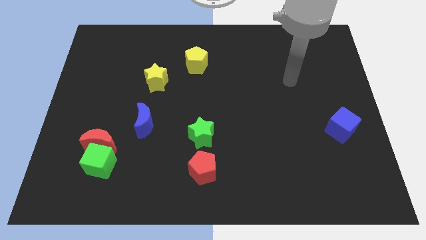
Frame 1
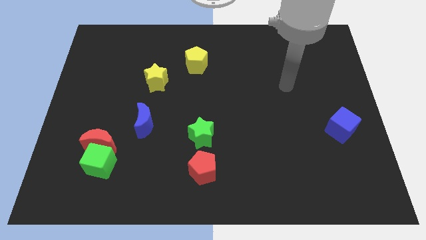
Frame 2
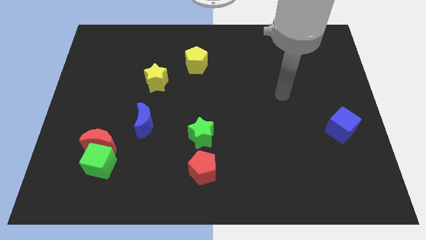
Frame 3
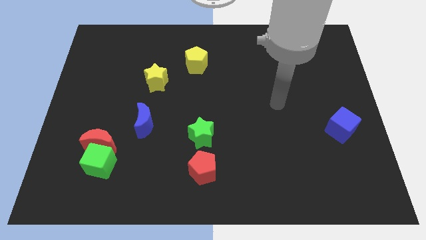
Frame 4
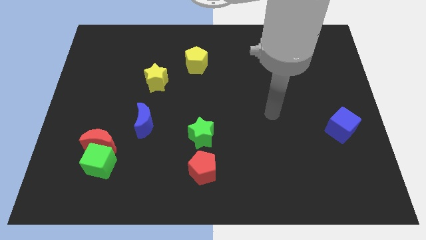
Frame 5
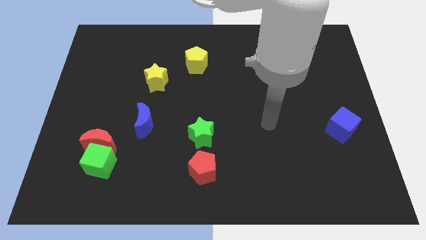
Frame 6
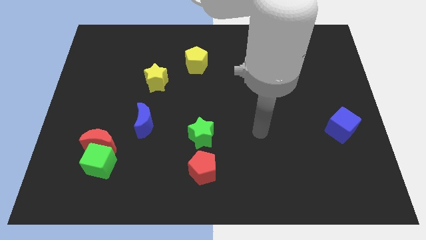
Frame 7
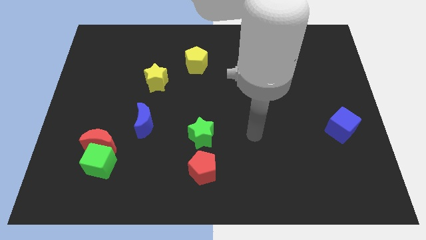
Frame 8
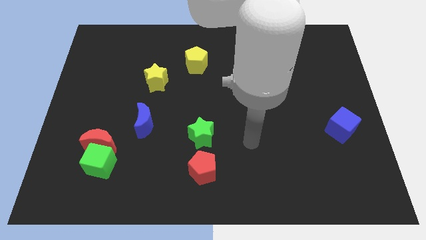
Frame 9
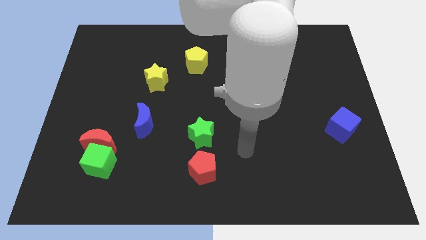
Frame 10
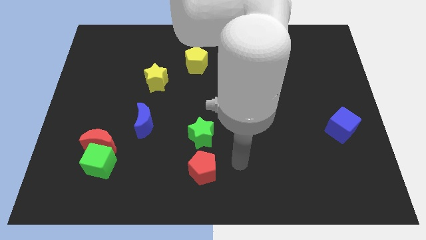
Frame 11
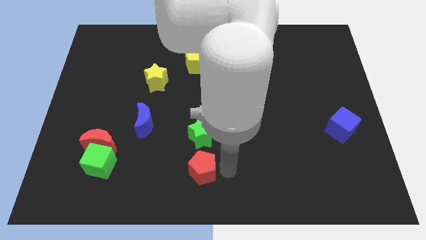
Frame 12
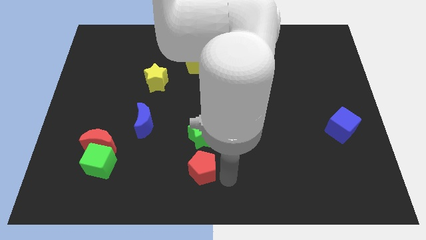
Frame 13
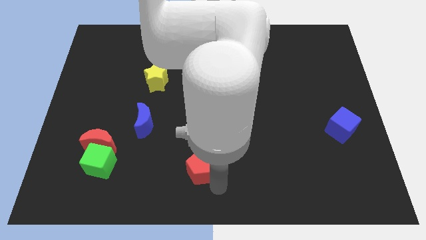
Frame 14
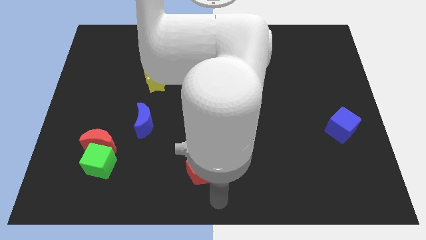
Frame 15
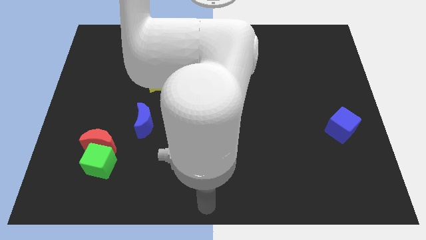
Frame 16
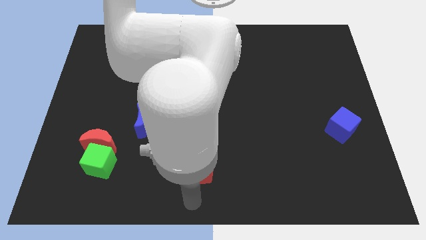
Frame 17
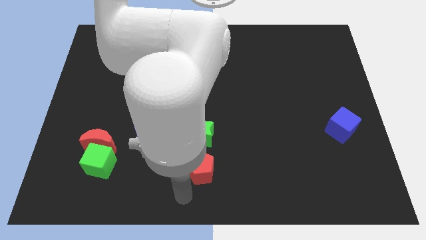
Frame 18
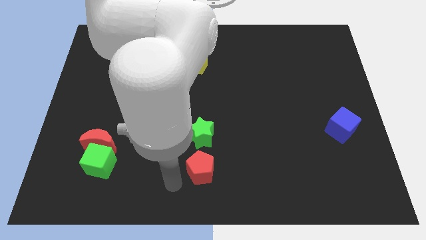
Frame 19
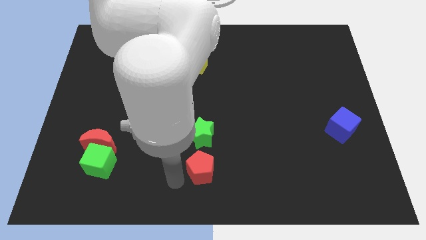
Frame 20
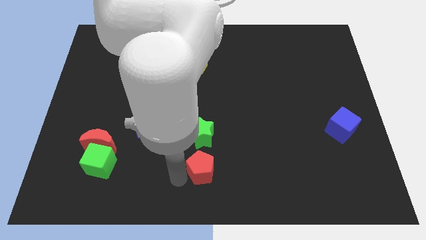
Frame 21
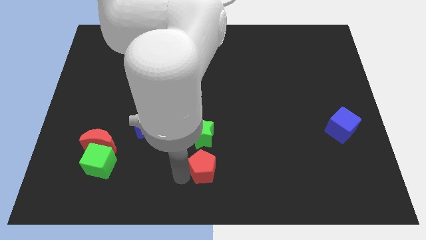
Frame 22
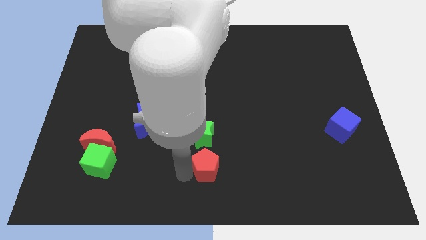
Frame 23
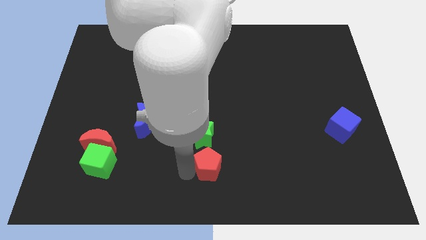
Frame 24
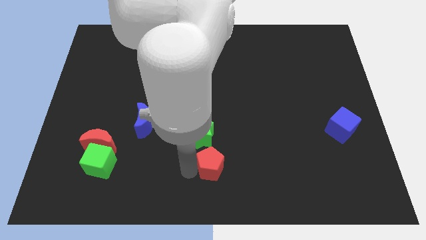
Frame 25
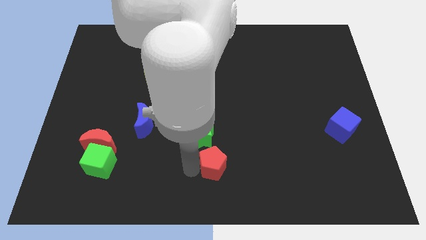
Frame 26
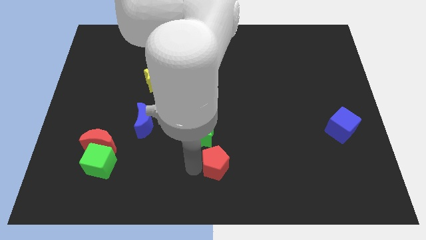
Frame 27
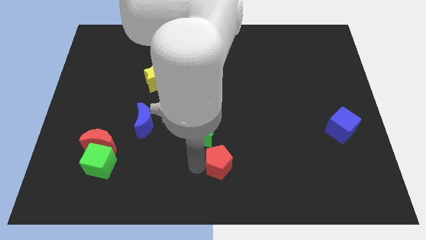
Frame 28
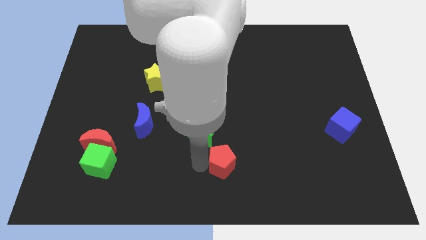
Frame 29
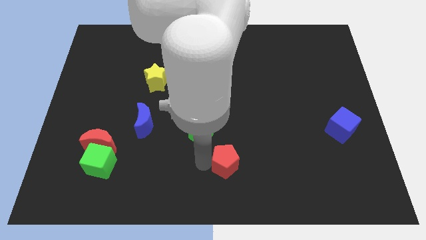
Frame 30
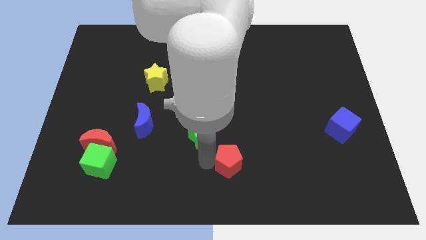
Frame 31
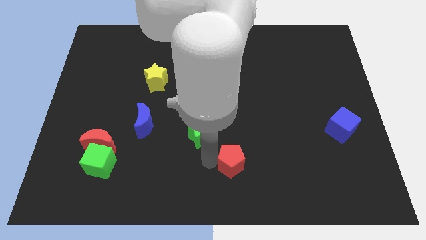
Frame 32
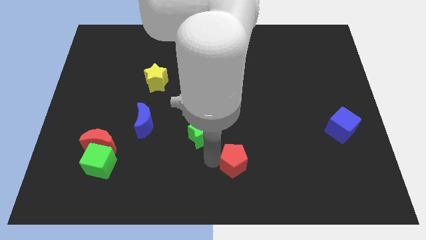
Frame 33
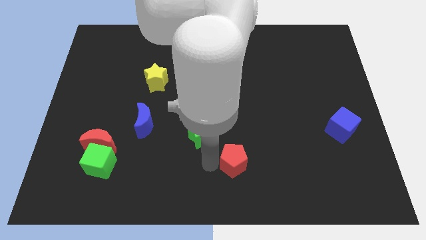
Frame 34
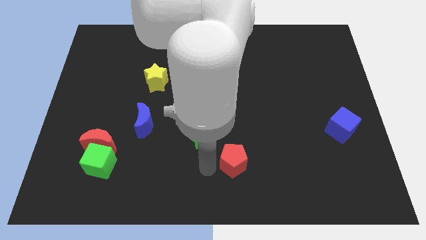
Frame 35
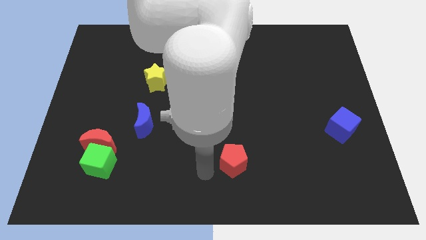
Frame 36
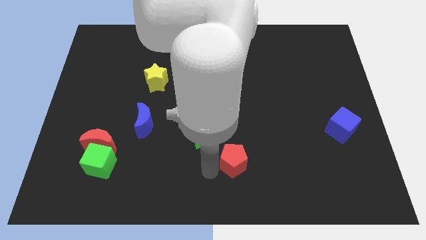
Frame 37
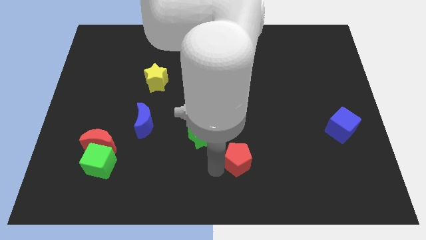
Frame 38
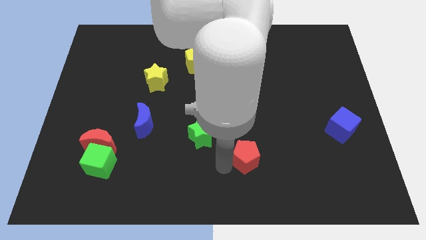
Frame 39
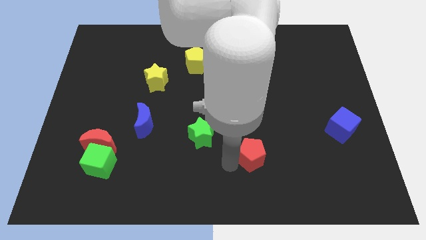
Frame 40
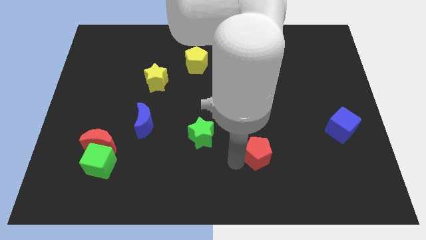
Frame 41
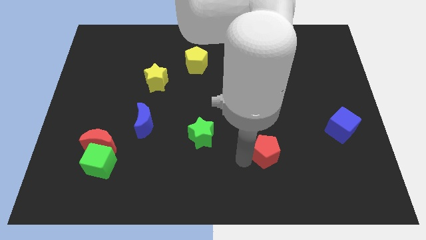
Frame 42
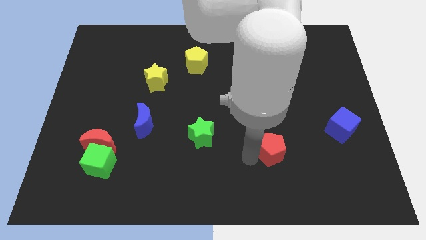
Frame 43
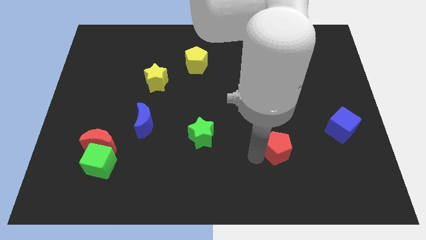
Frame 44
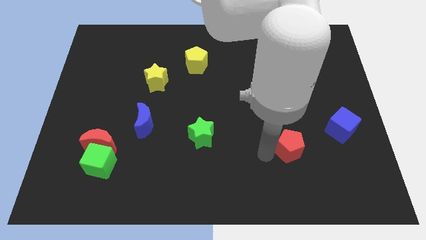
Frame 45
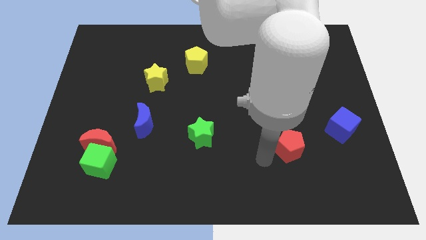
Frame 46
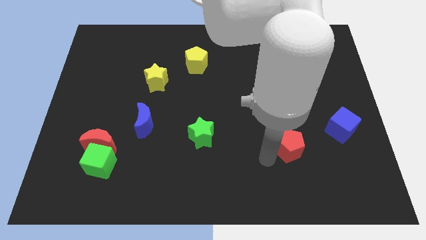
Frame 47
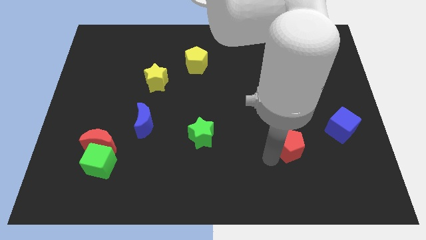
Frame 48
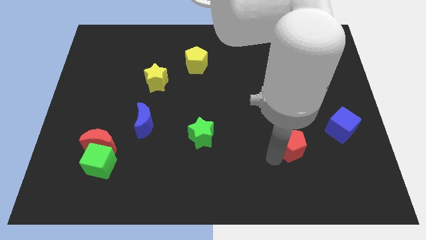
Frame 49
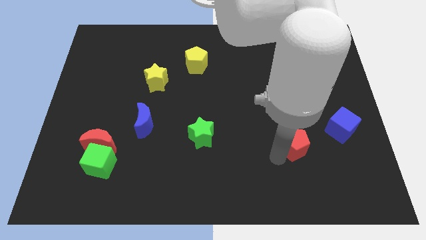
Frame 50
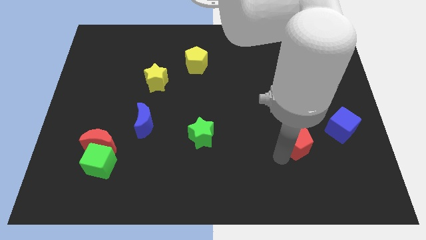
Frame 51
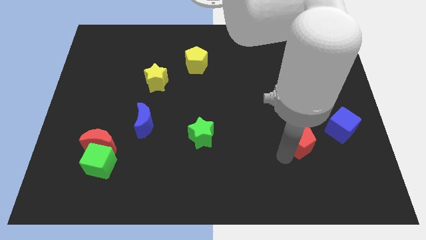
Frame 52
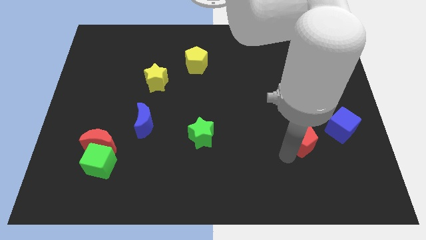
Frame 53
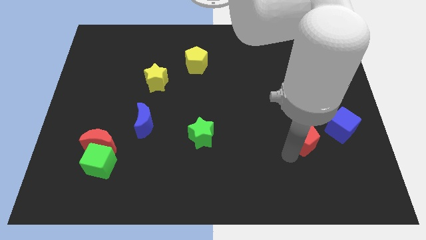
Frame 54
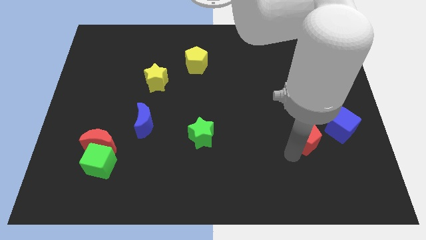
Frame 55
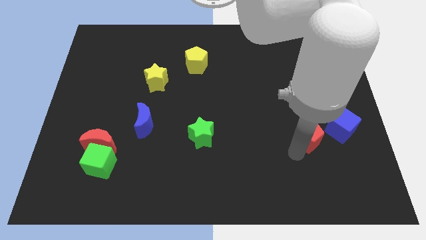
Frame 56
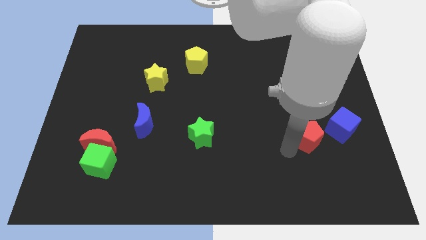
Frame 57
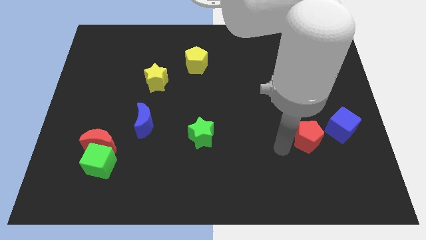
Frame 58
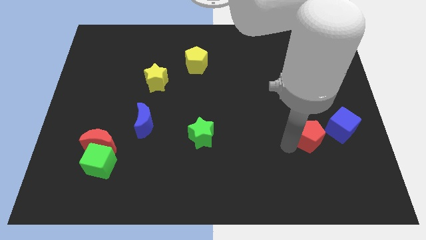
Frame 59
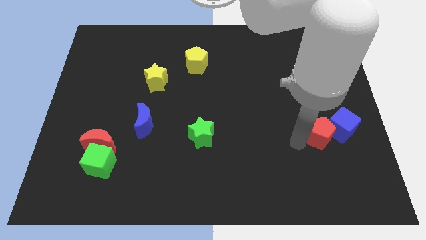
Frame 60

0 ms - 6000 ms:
put the red pentagon next to the blue cube

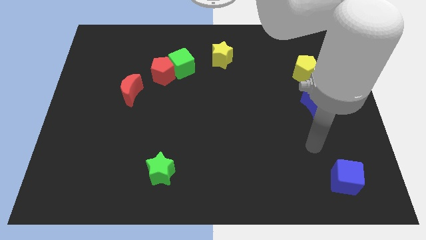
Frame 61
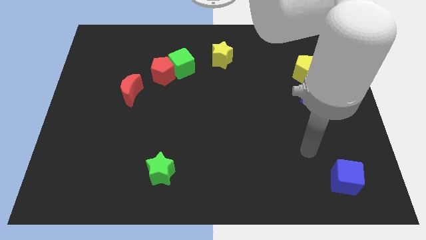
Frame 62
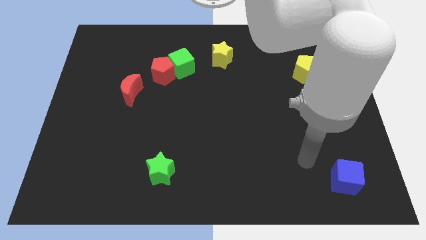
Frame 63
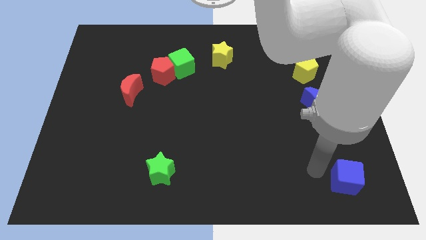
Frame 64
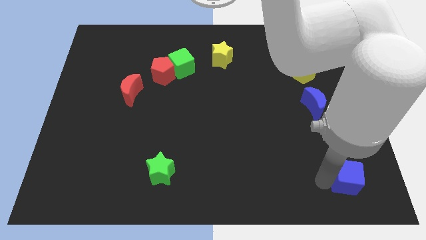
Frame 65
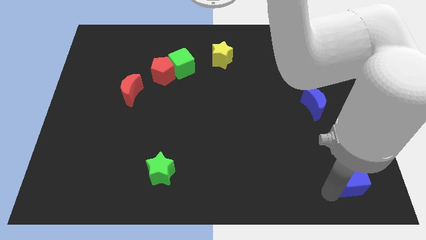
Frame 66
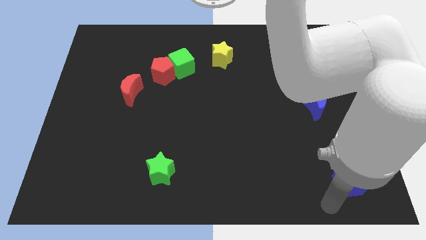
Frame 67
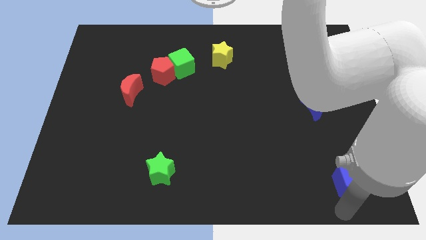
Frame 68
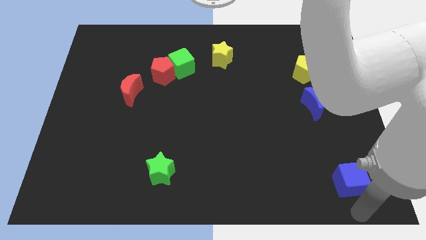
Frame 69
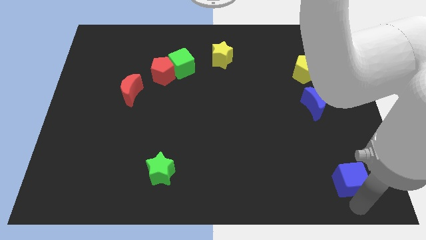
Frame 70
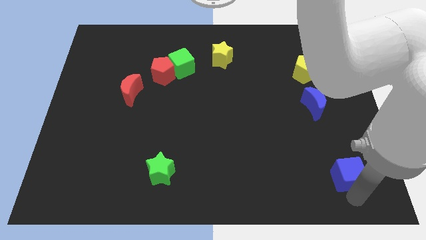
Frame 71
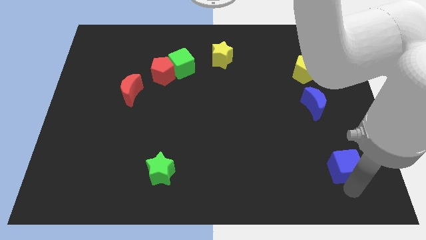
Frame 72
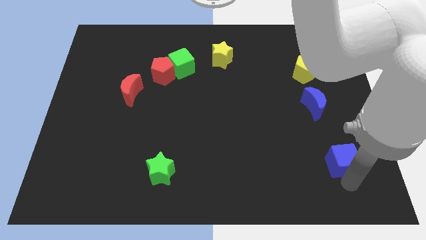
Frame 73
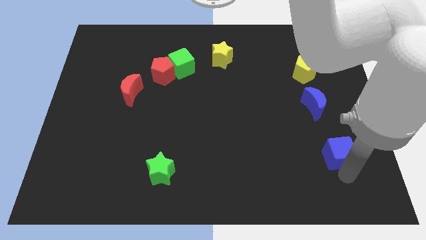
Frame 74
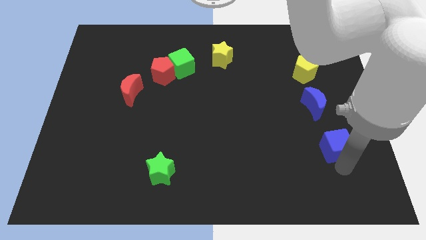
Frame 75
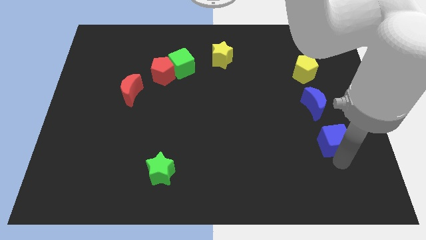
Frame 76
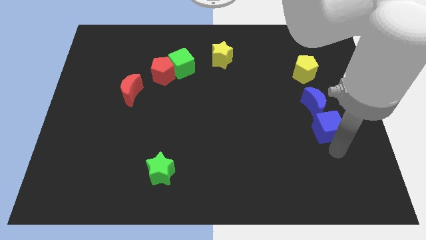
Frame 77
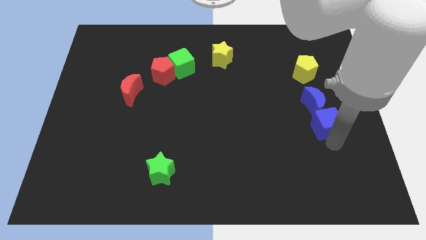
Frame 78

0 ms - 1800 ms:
slide the blue cube to the blue moon

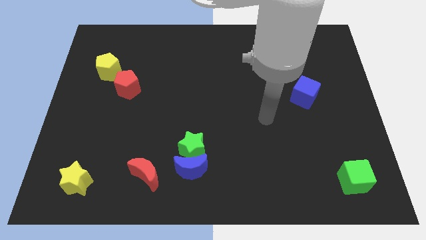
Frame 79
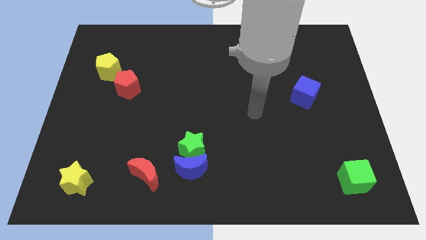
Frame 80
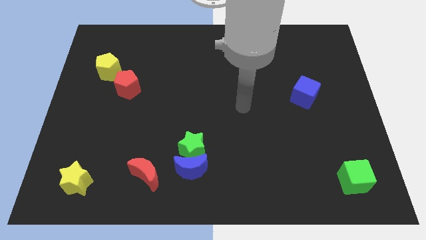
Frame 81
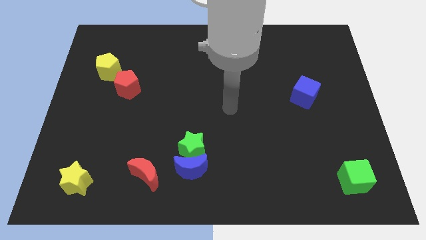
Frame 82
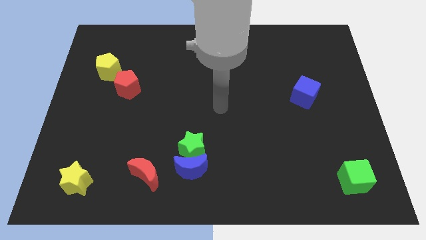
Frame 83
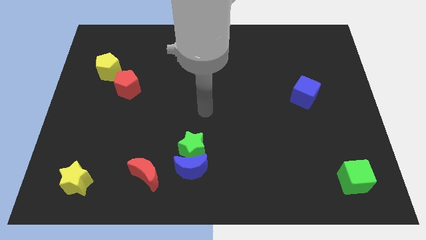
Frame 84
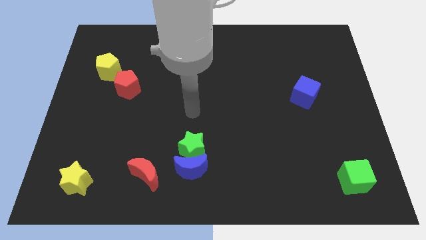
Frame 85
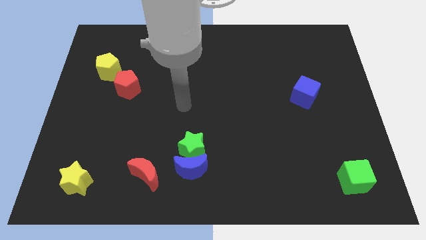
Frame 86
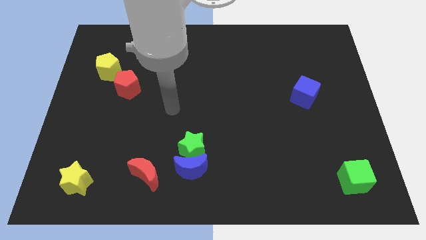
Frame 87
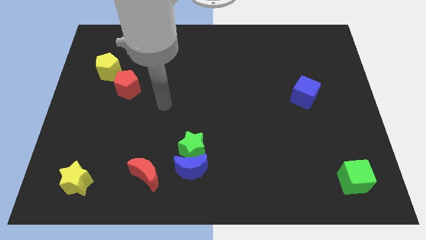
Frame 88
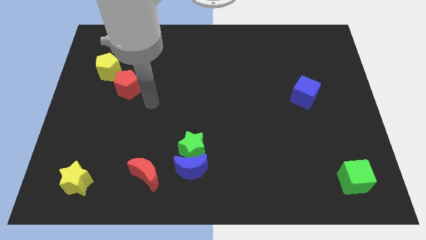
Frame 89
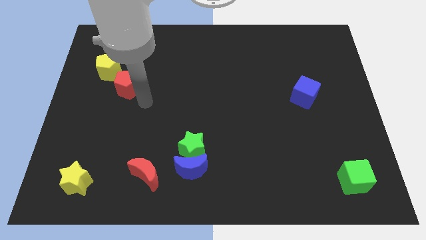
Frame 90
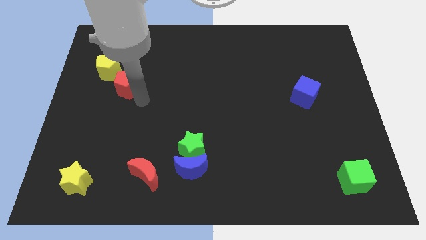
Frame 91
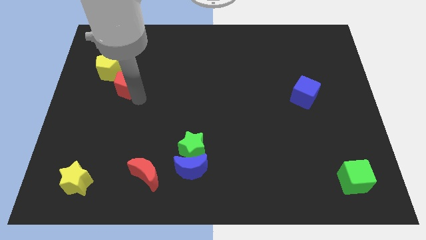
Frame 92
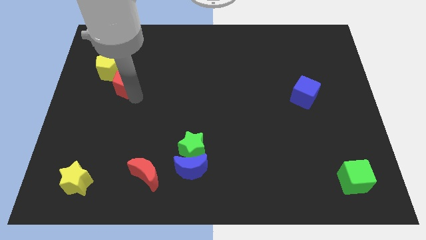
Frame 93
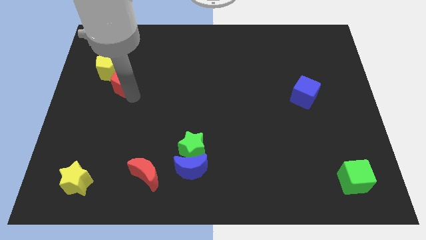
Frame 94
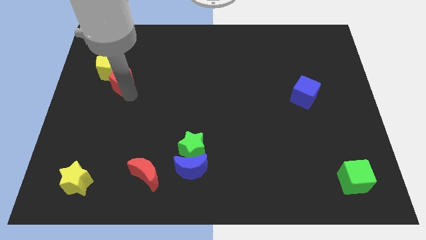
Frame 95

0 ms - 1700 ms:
move the red pentagon next to the yellow pentagon
